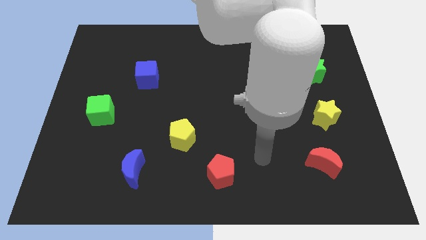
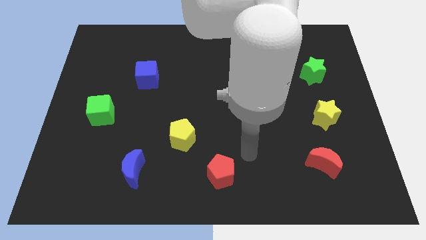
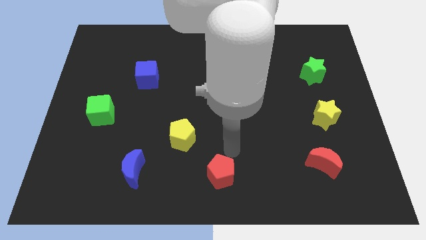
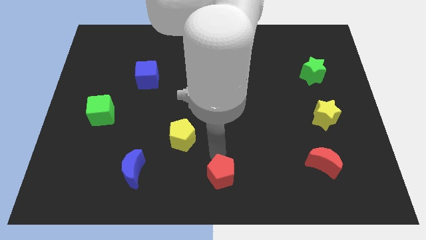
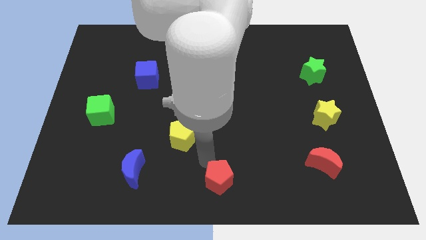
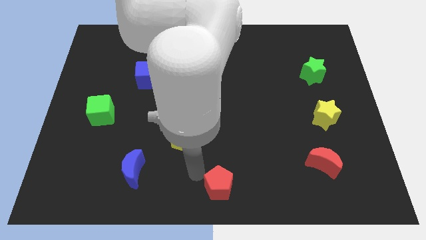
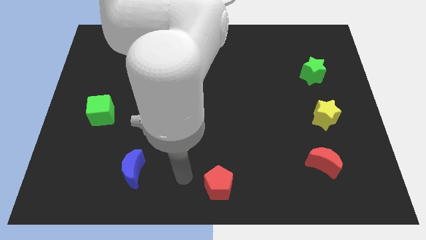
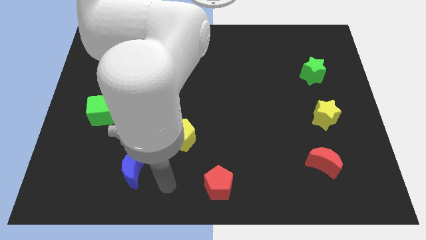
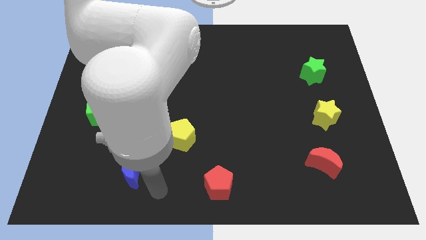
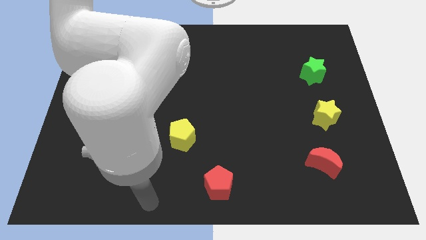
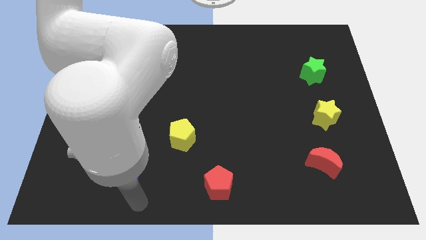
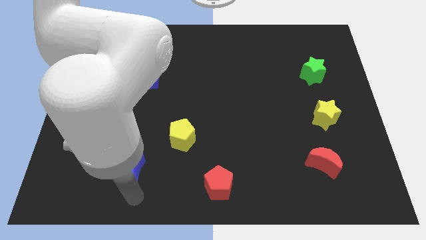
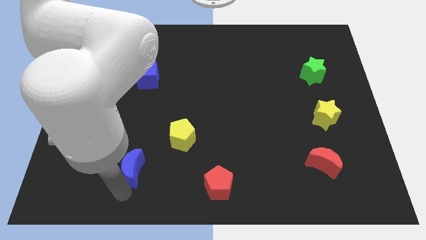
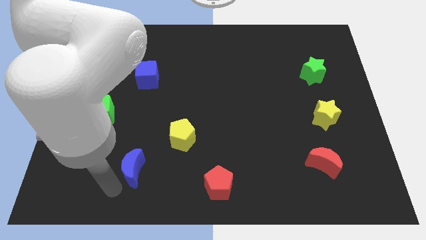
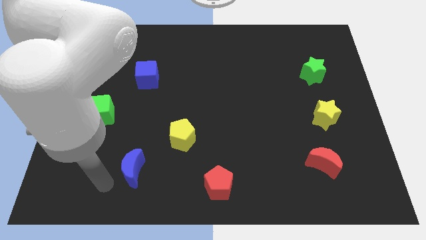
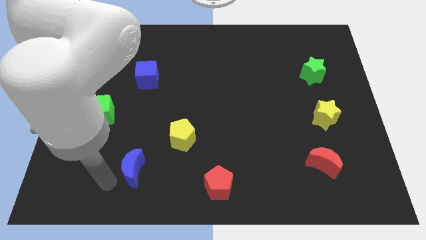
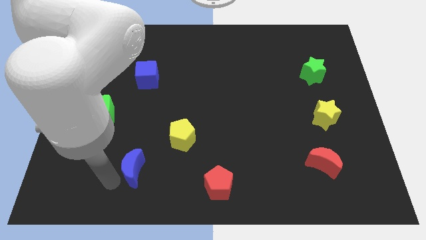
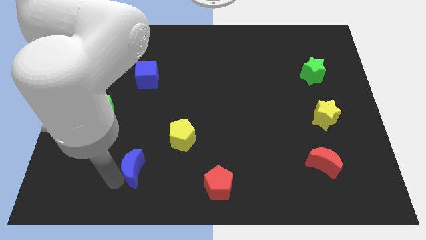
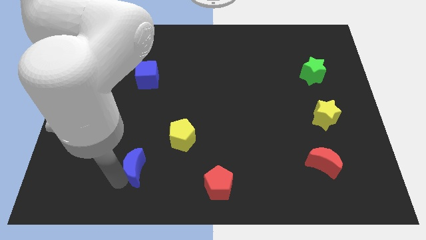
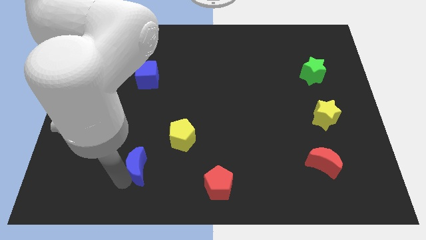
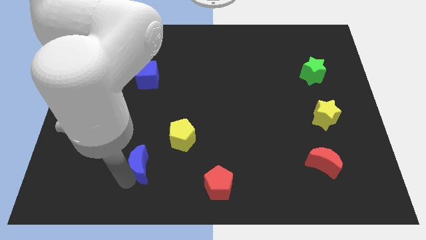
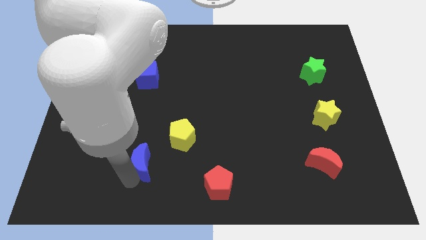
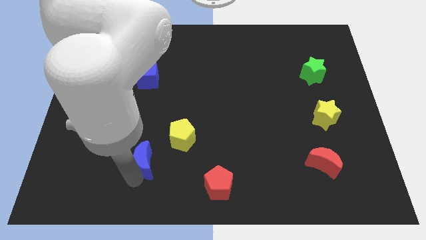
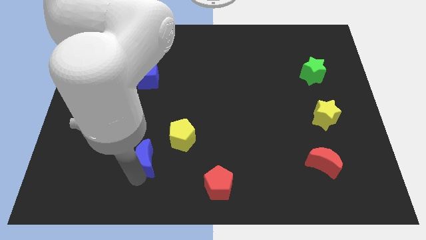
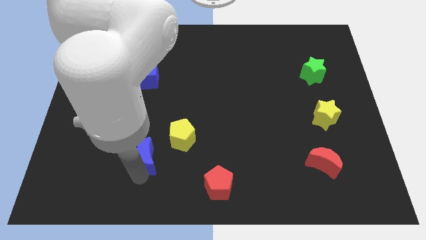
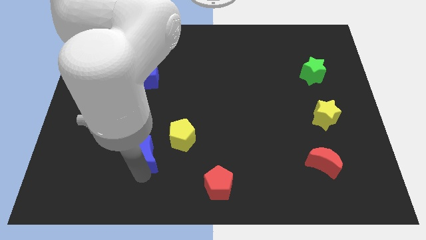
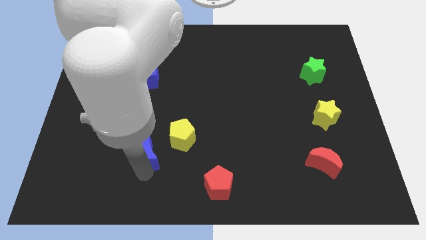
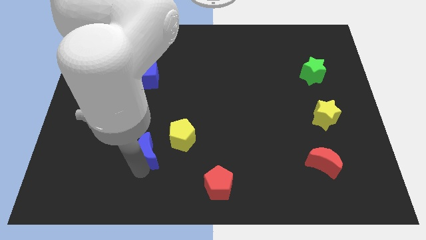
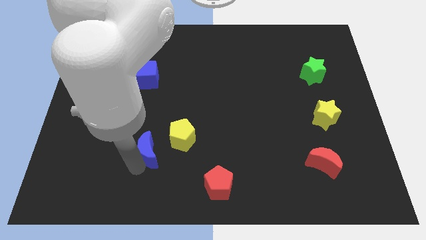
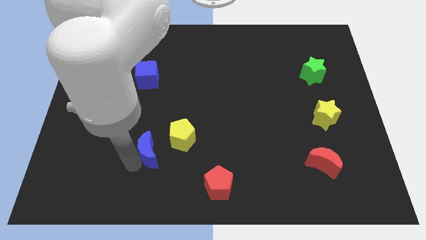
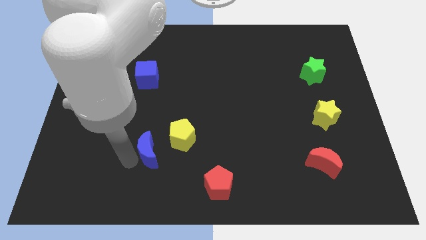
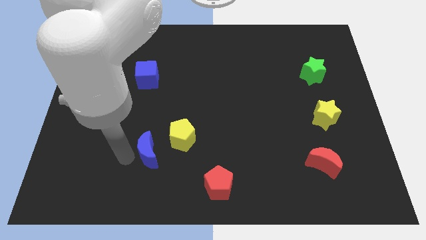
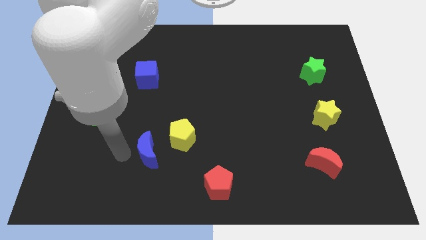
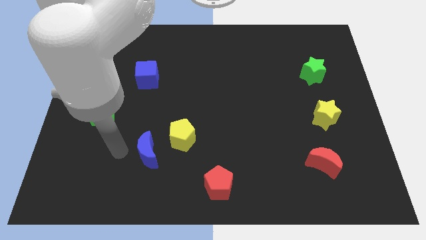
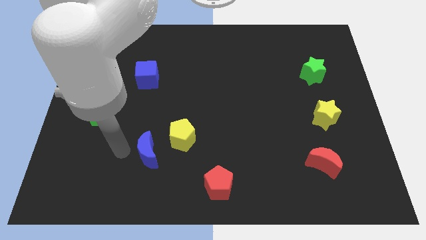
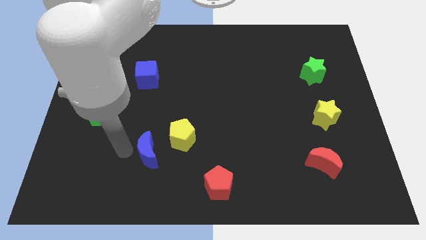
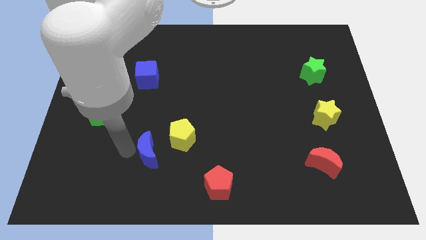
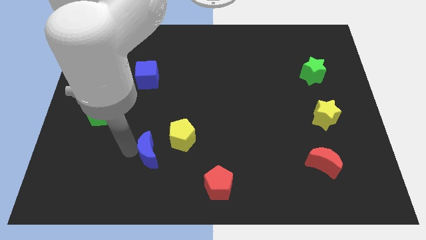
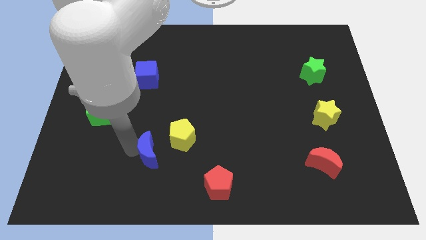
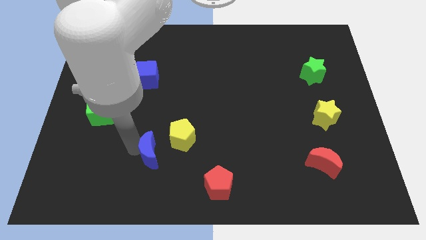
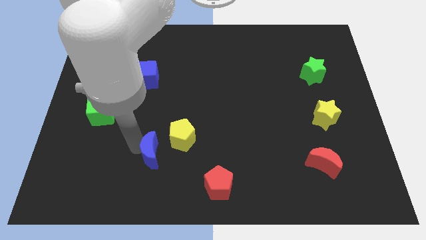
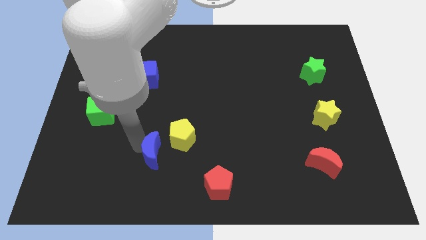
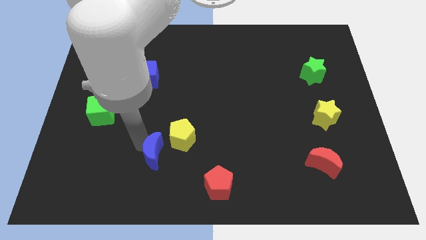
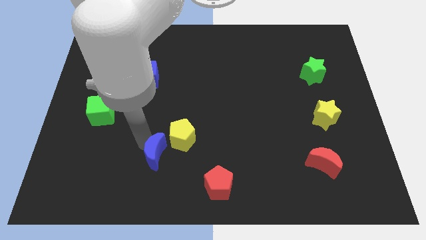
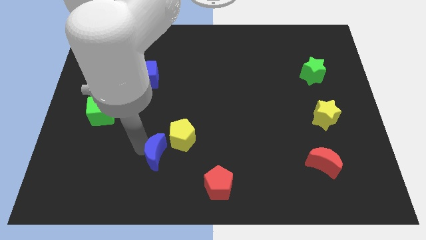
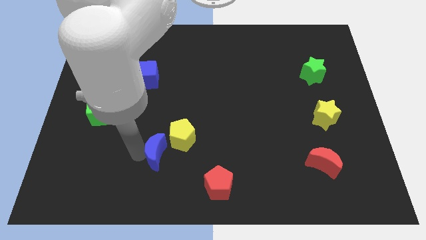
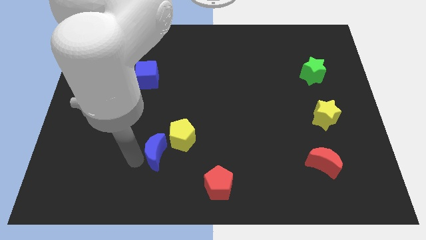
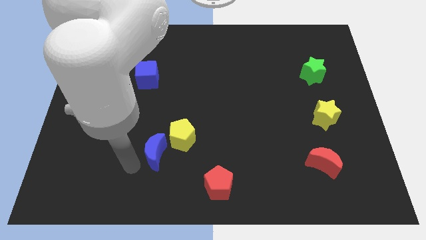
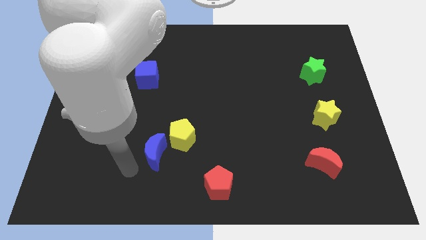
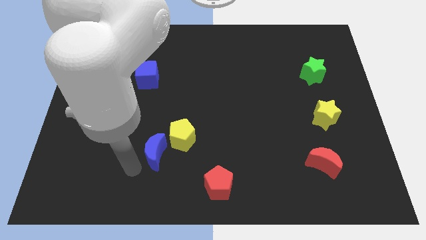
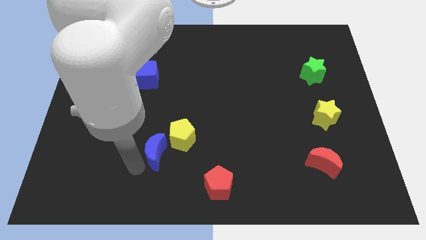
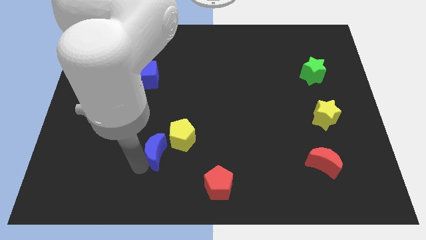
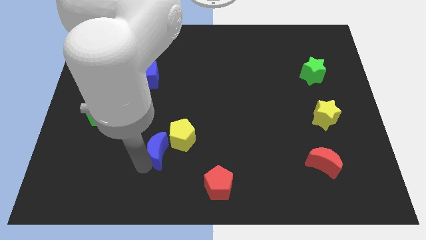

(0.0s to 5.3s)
slide the blue moon next to the yellow pentagon

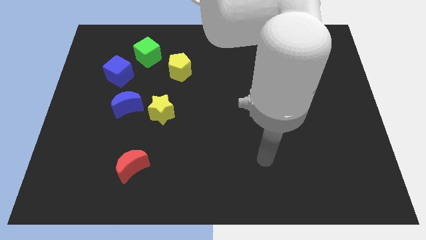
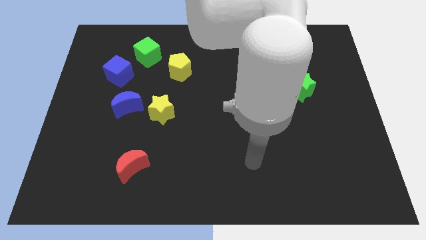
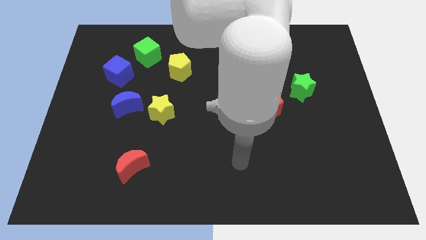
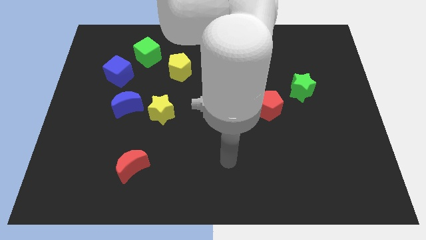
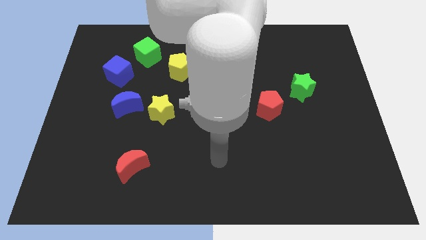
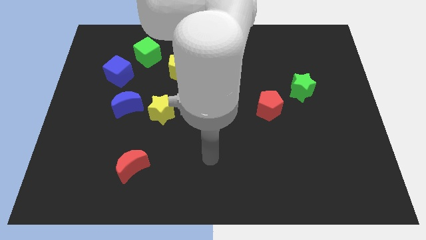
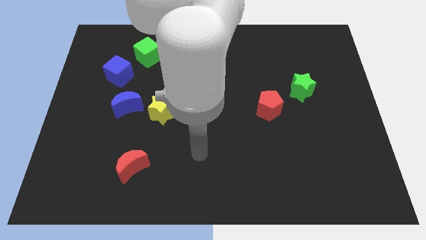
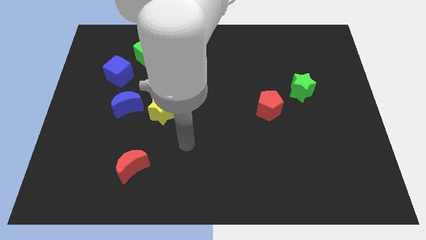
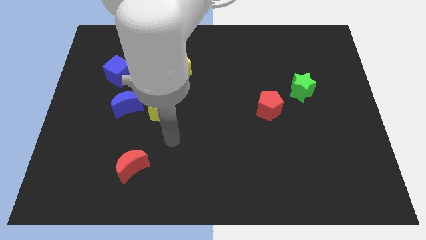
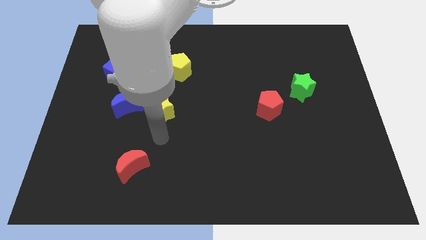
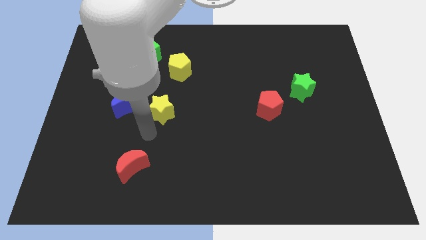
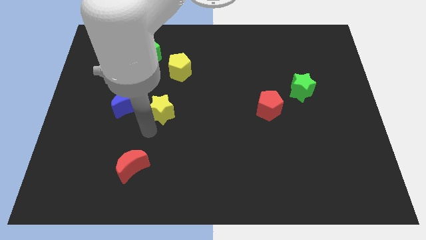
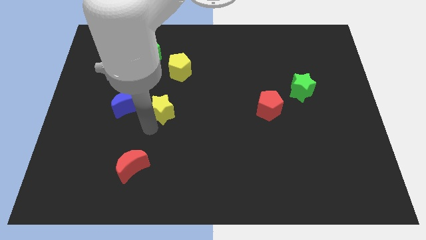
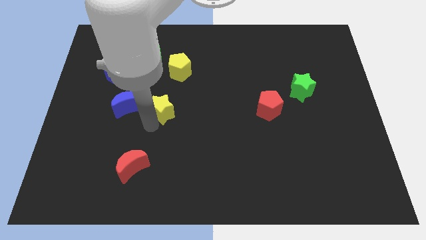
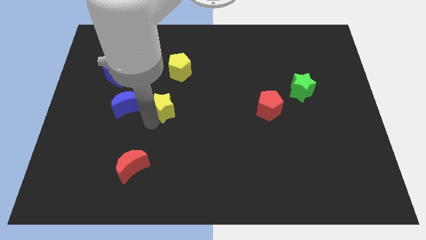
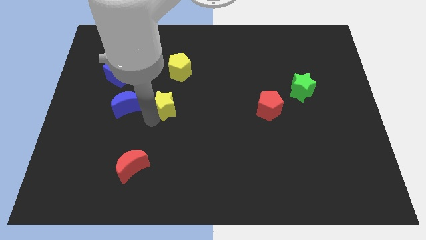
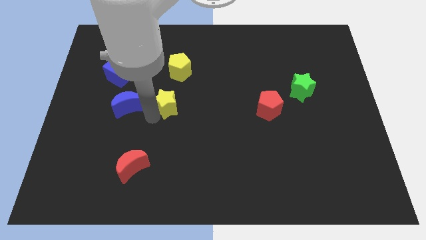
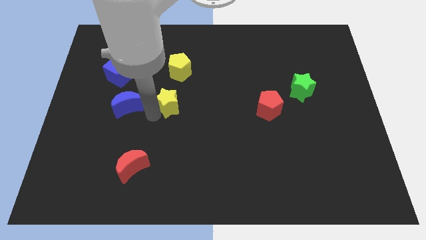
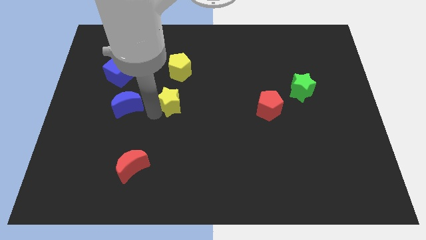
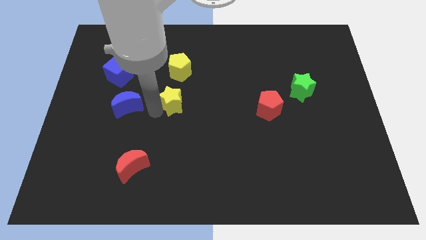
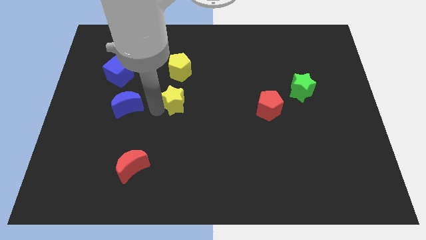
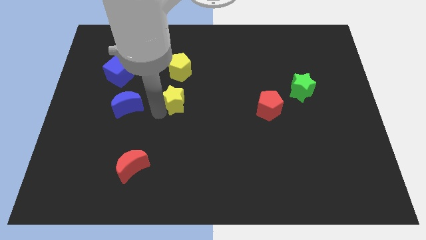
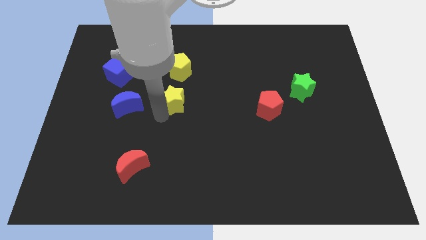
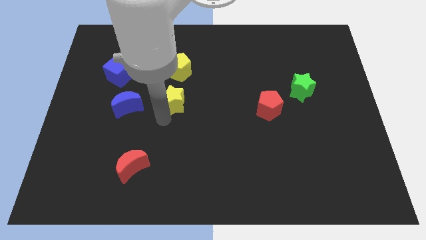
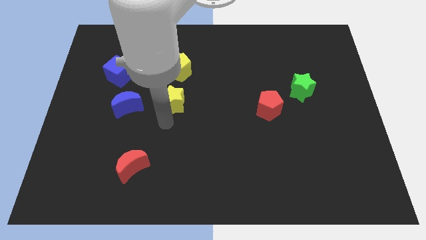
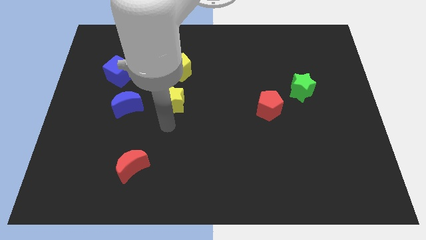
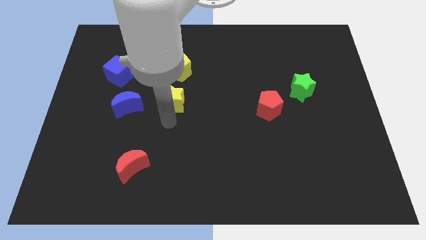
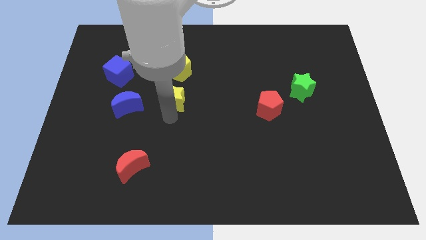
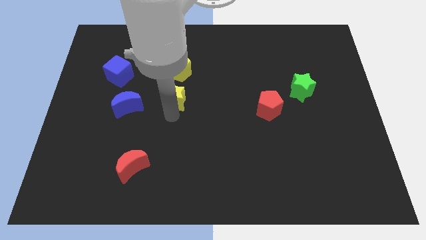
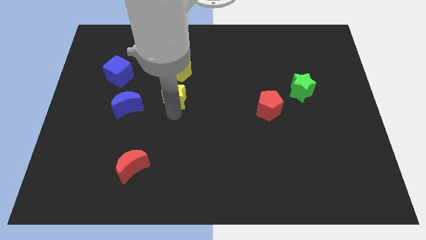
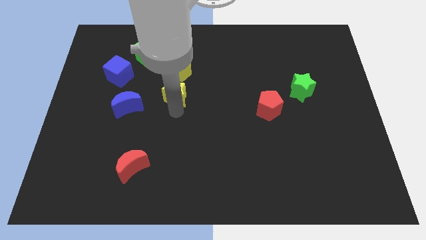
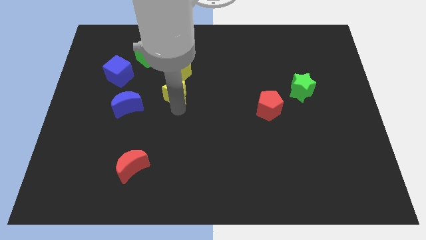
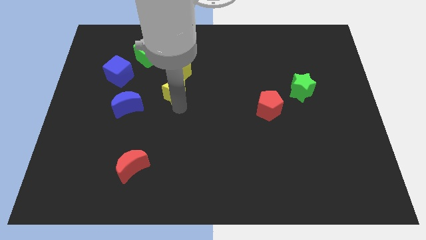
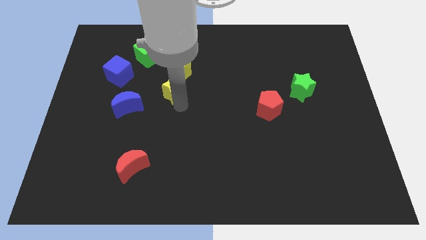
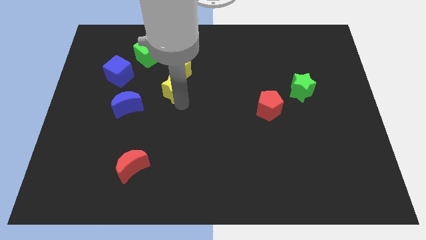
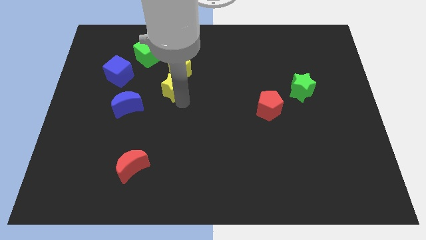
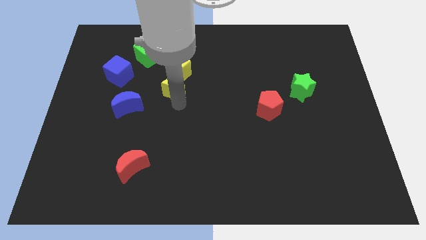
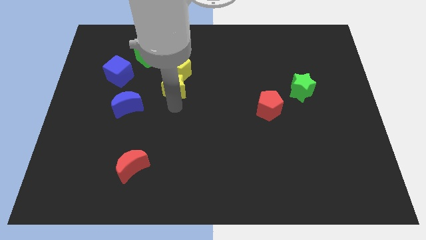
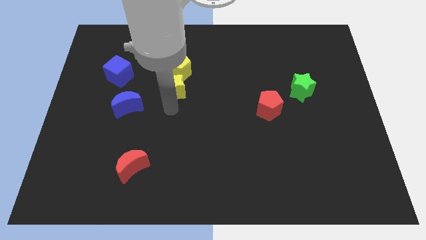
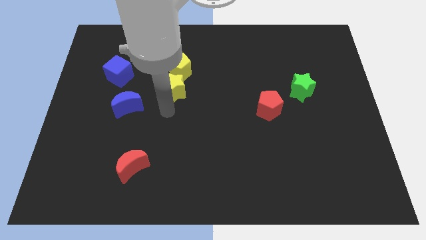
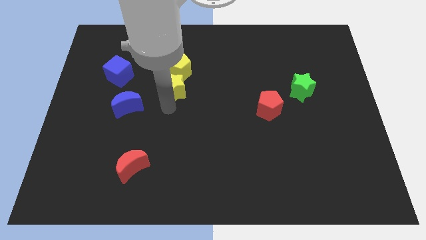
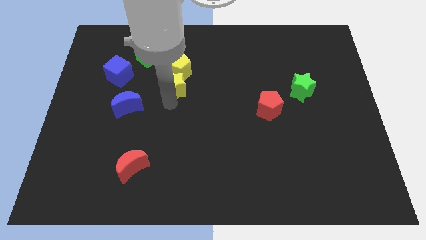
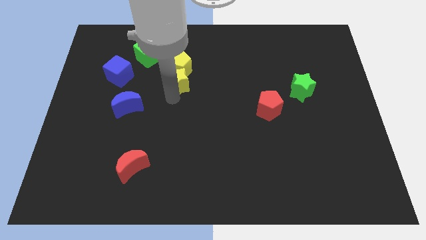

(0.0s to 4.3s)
move the yellow star to the yellow pentagon
